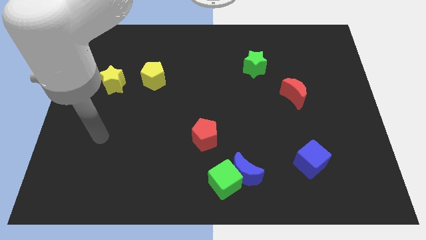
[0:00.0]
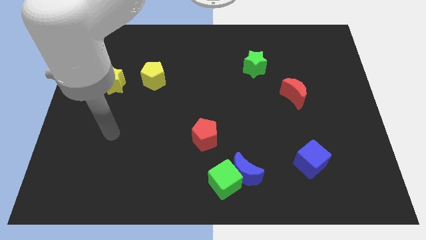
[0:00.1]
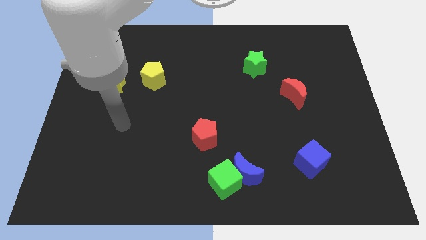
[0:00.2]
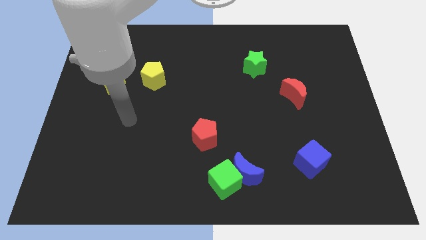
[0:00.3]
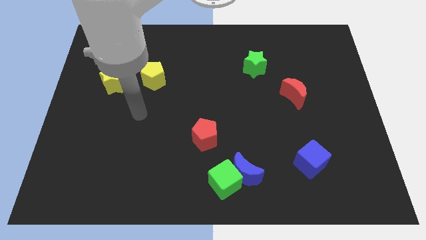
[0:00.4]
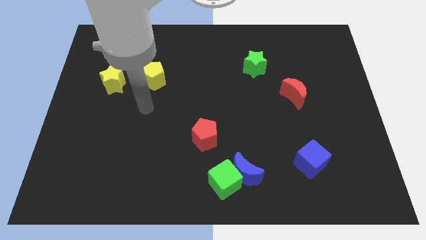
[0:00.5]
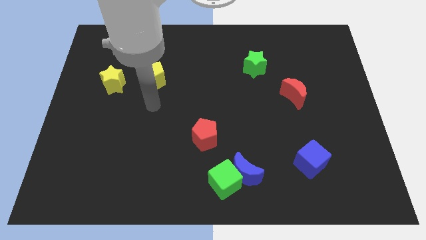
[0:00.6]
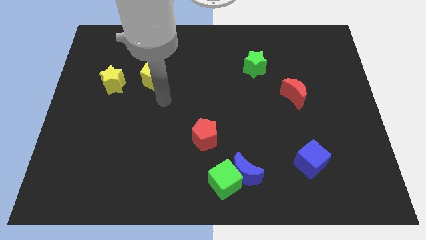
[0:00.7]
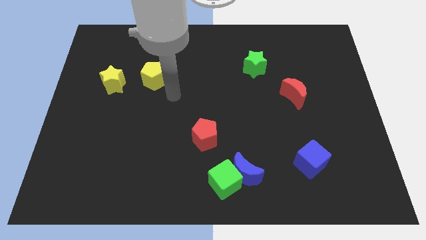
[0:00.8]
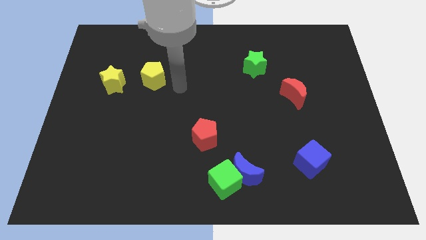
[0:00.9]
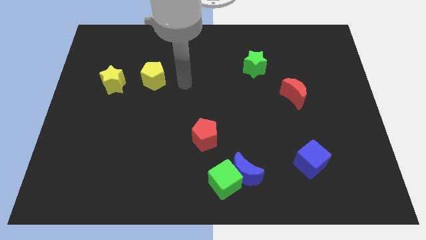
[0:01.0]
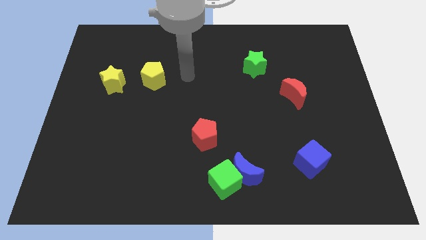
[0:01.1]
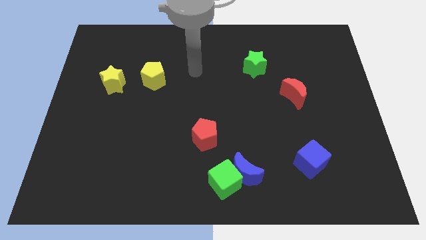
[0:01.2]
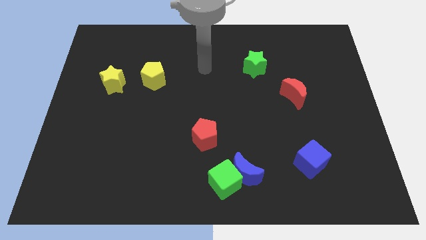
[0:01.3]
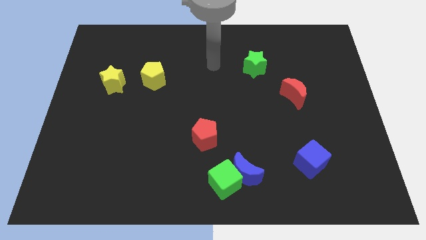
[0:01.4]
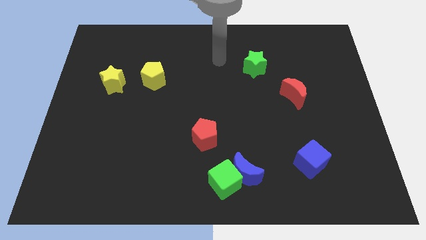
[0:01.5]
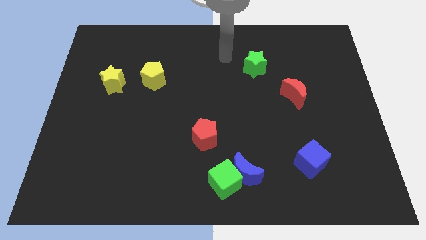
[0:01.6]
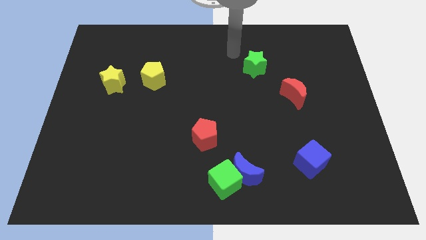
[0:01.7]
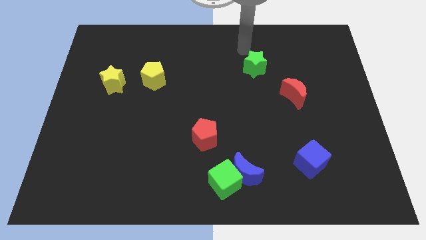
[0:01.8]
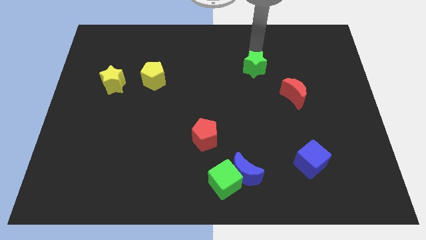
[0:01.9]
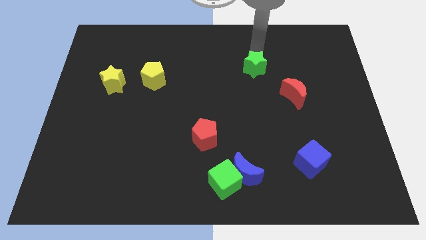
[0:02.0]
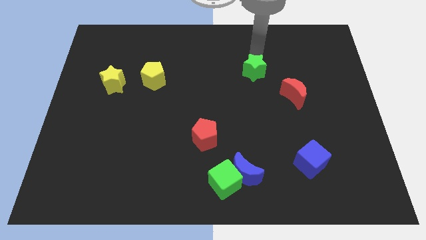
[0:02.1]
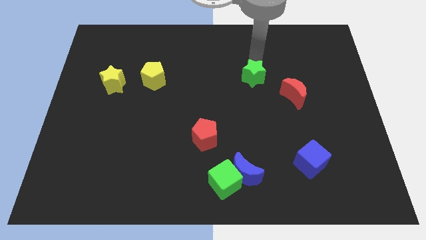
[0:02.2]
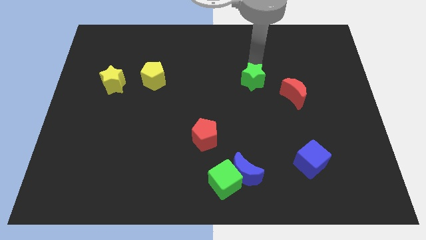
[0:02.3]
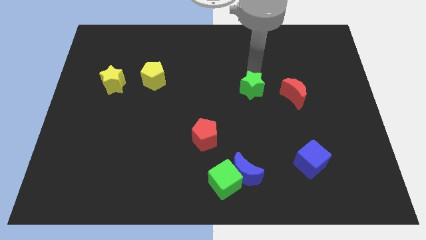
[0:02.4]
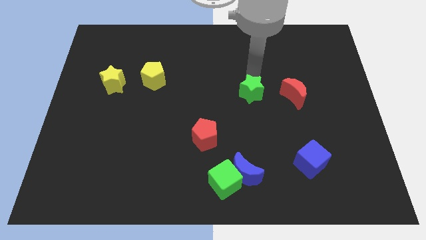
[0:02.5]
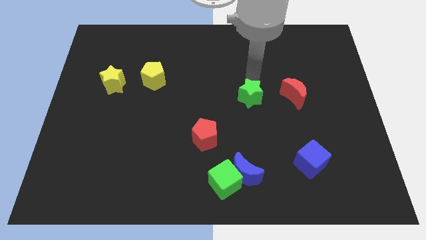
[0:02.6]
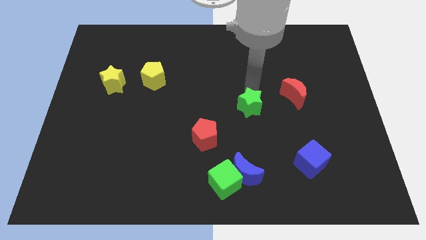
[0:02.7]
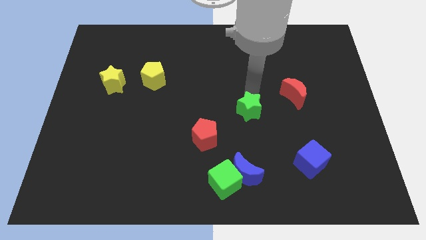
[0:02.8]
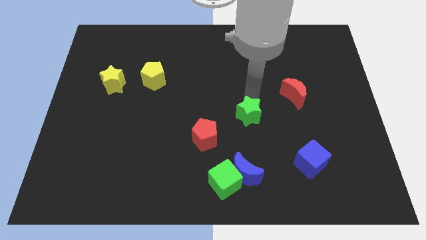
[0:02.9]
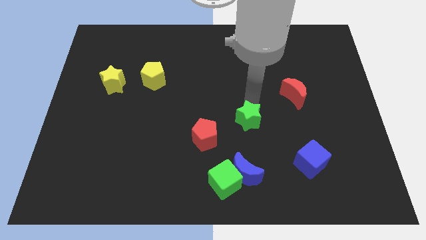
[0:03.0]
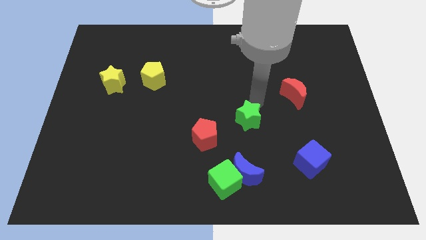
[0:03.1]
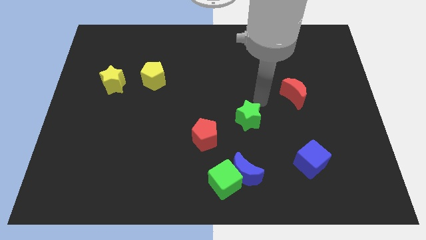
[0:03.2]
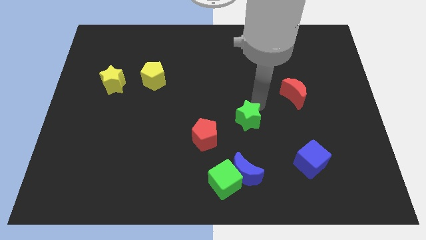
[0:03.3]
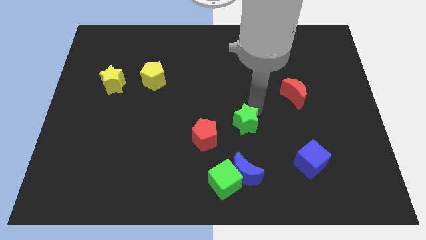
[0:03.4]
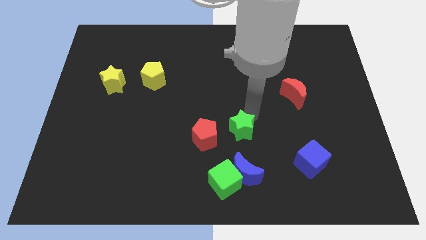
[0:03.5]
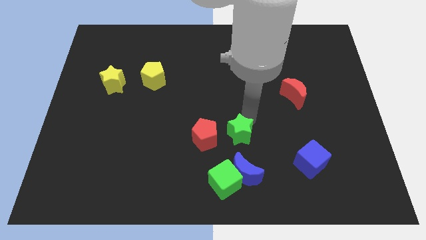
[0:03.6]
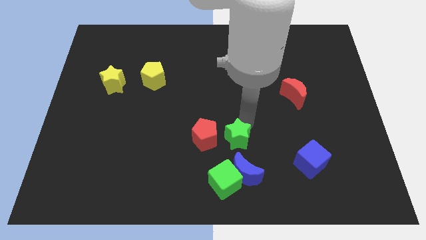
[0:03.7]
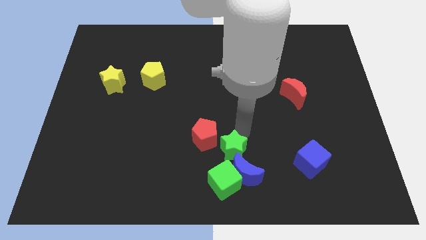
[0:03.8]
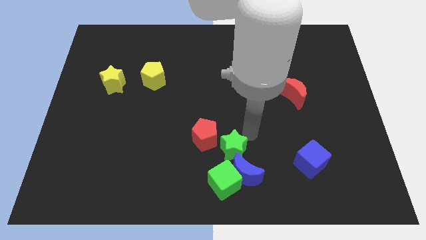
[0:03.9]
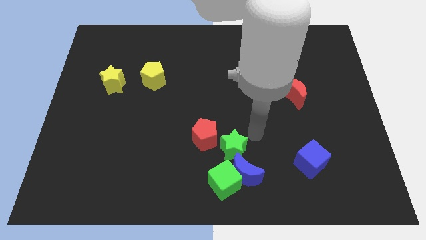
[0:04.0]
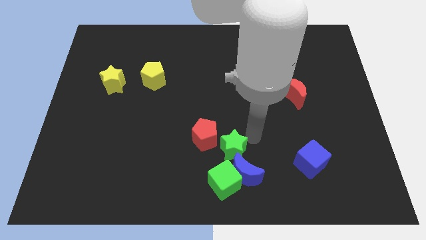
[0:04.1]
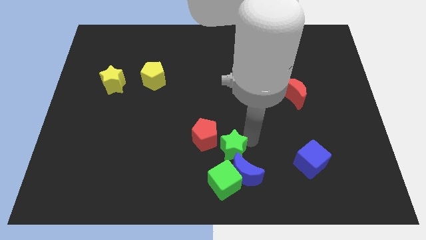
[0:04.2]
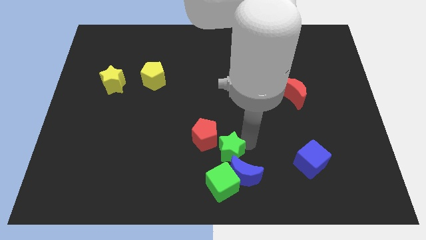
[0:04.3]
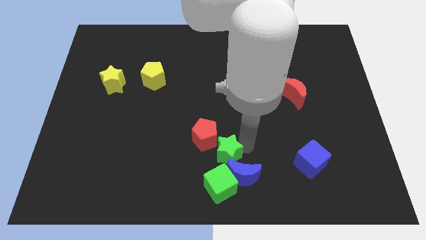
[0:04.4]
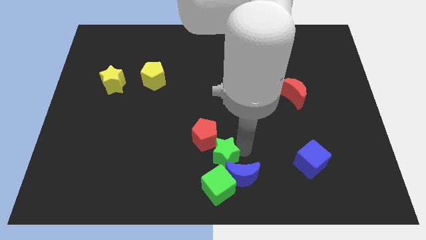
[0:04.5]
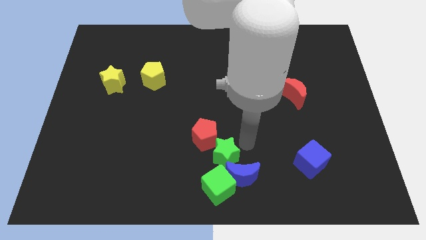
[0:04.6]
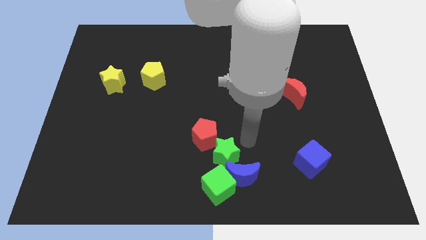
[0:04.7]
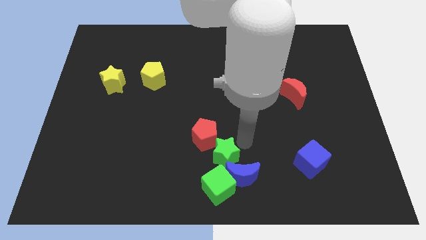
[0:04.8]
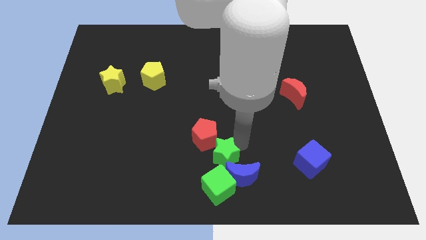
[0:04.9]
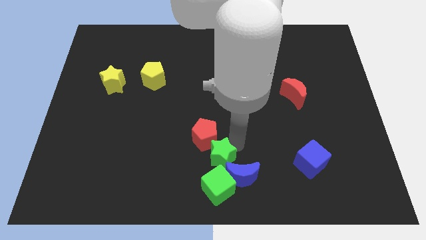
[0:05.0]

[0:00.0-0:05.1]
move the green star to the left side of the blue moon

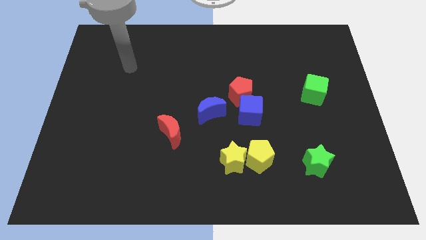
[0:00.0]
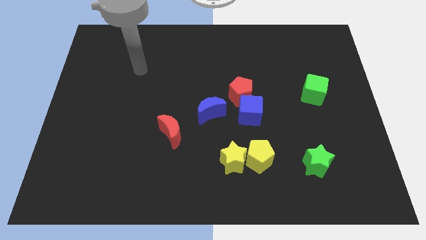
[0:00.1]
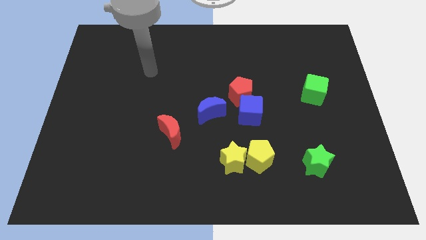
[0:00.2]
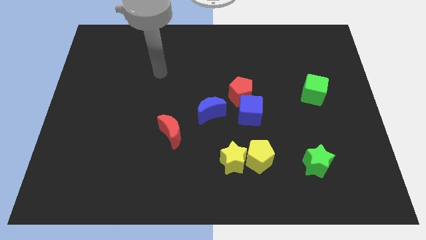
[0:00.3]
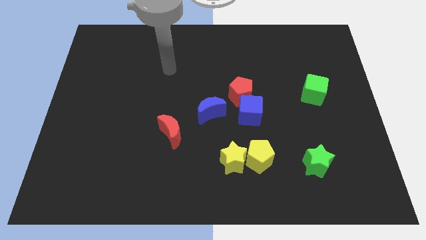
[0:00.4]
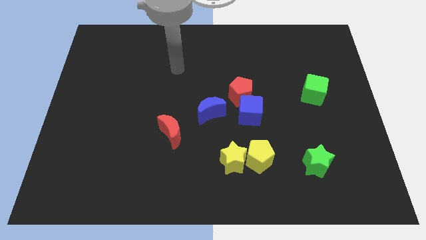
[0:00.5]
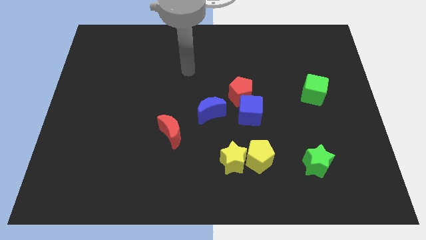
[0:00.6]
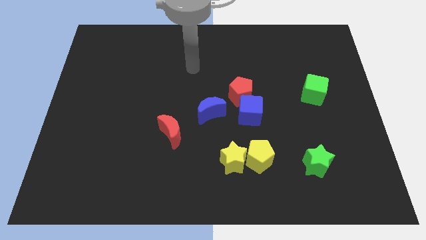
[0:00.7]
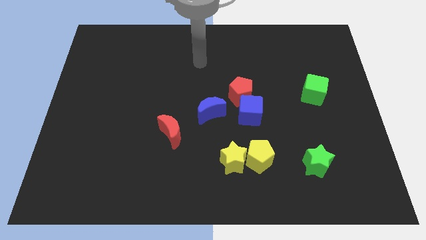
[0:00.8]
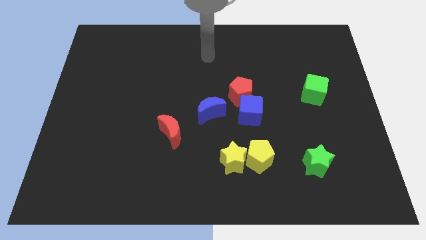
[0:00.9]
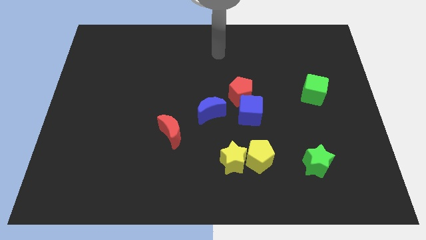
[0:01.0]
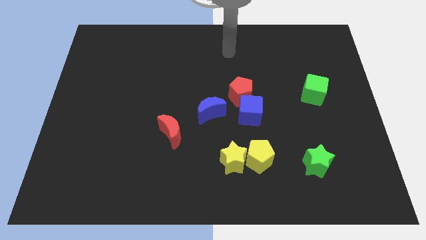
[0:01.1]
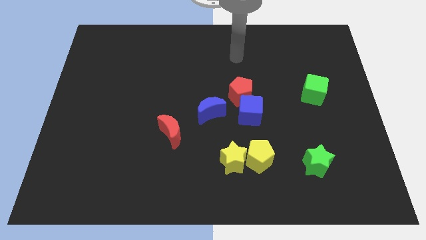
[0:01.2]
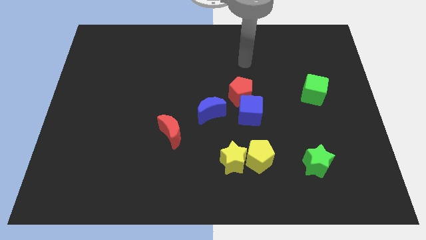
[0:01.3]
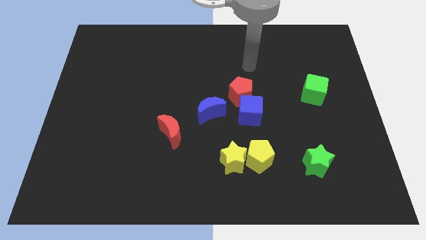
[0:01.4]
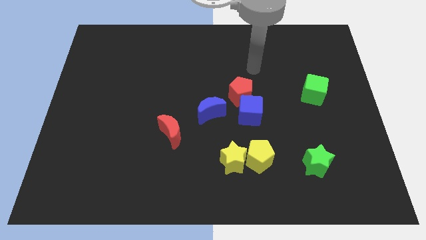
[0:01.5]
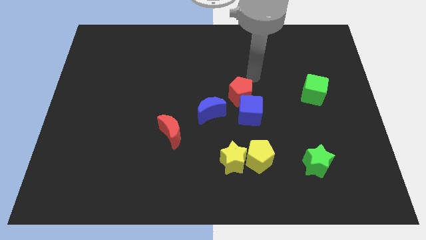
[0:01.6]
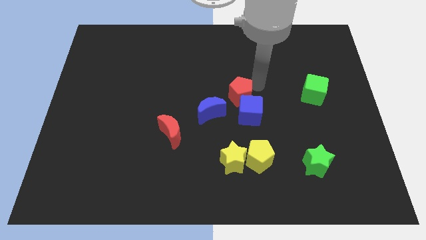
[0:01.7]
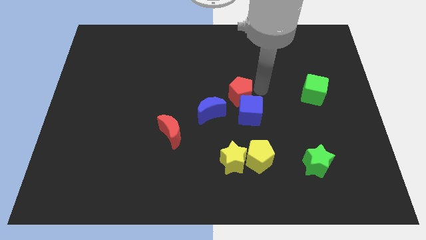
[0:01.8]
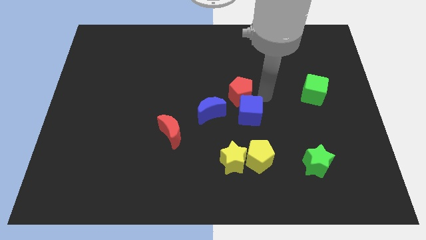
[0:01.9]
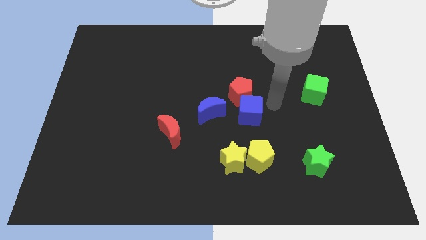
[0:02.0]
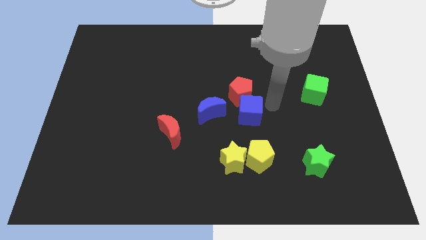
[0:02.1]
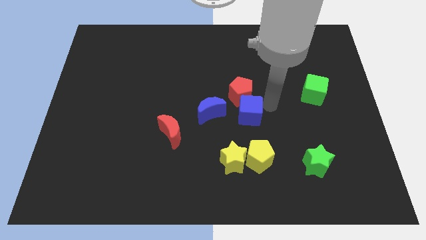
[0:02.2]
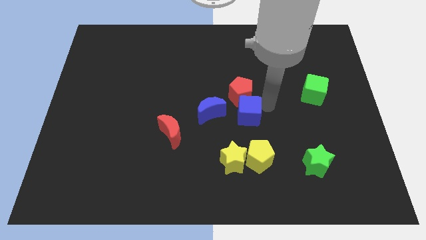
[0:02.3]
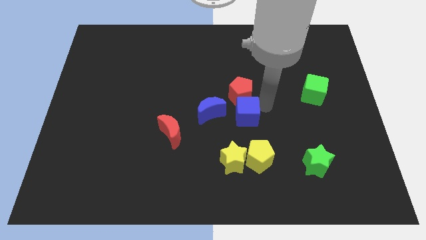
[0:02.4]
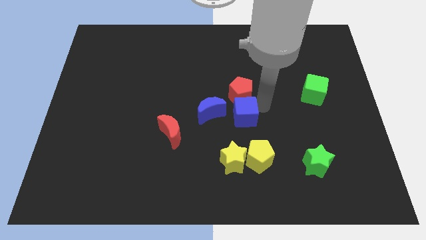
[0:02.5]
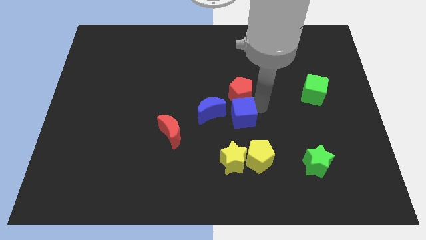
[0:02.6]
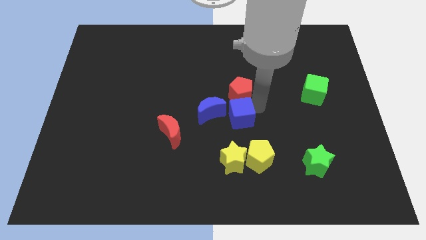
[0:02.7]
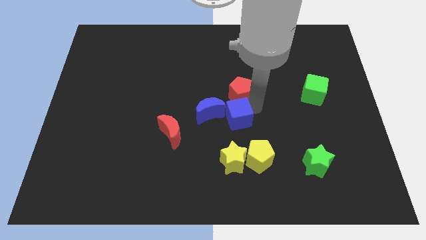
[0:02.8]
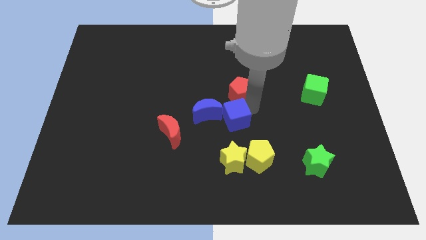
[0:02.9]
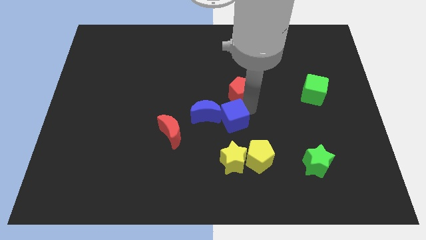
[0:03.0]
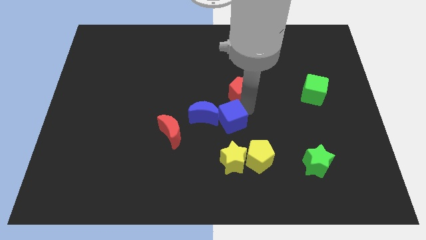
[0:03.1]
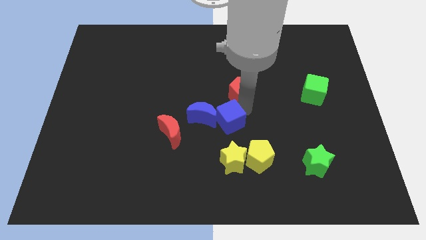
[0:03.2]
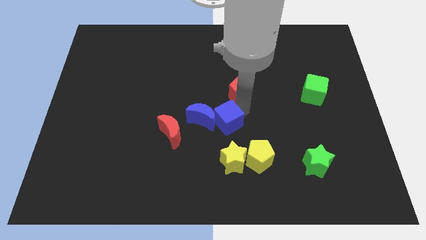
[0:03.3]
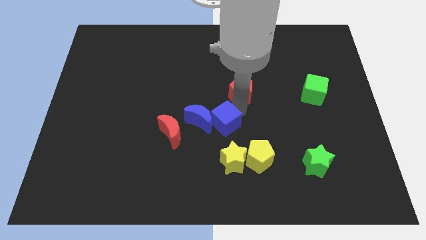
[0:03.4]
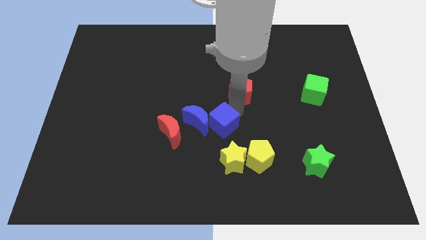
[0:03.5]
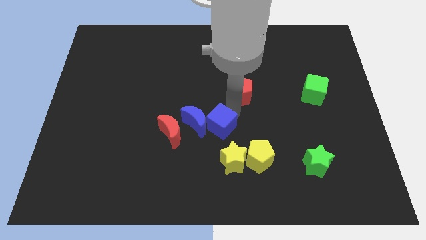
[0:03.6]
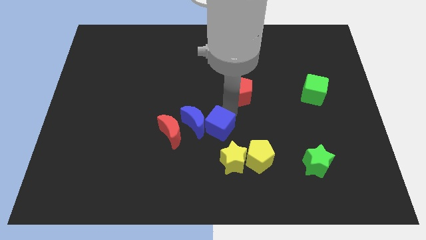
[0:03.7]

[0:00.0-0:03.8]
slide the blue cube diagonally up and to the left of the yellow star
